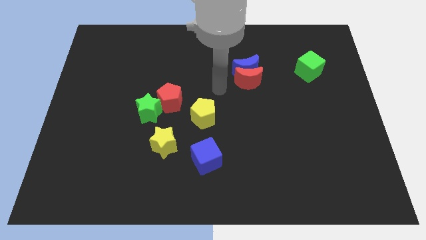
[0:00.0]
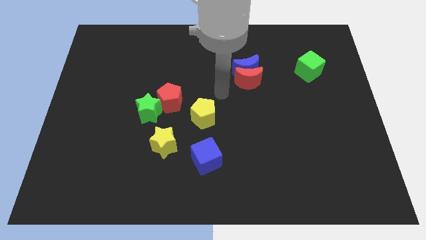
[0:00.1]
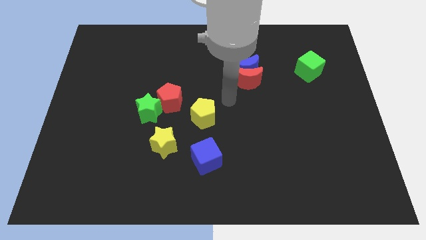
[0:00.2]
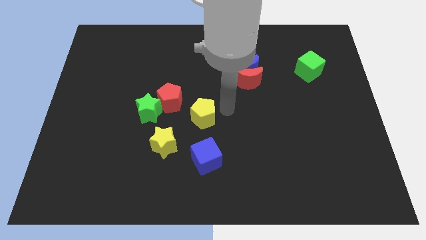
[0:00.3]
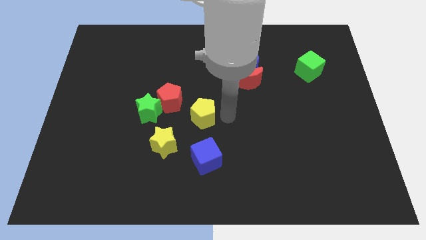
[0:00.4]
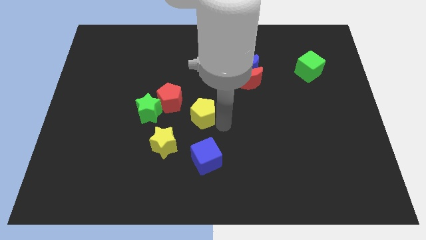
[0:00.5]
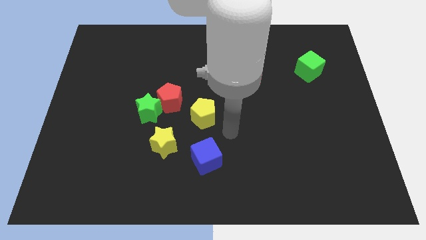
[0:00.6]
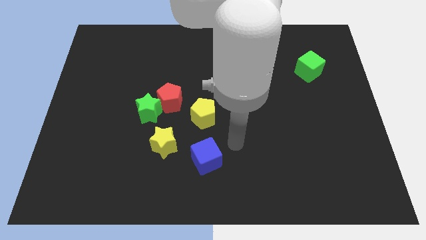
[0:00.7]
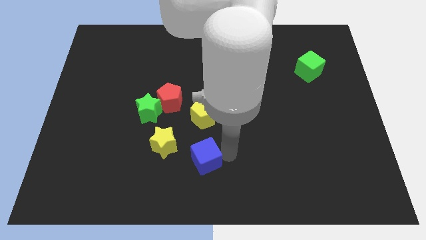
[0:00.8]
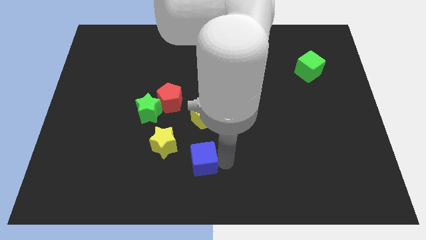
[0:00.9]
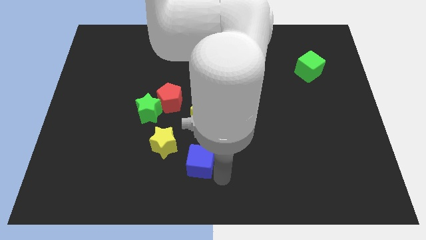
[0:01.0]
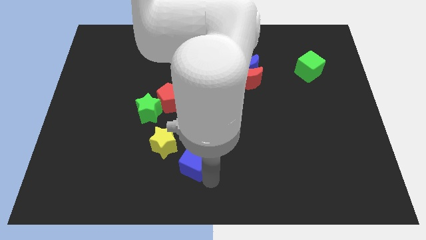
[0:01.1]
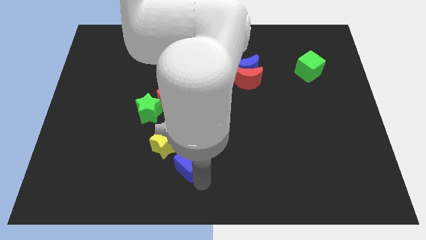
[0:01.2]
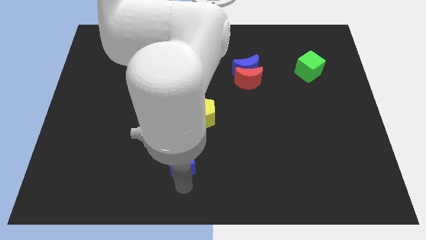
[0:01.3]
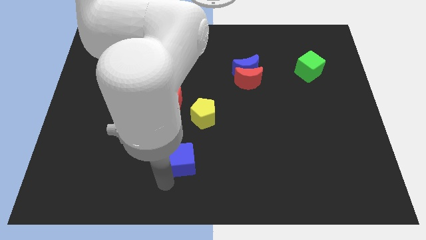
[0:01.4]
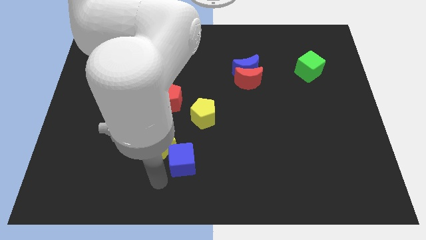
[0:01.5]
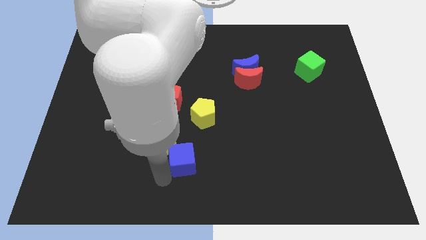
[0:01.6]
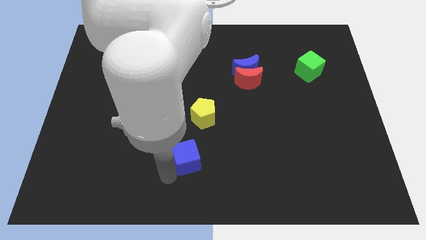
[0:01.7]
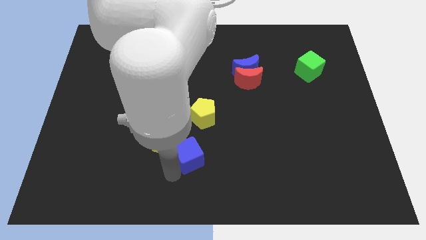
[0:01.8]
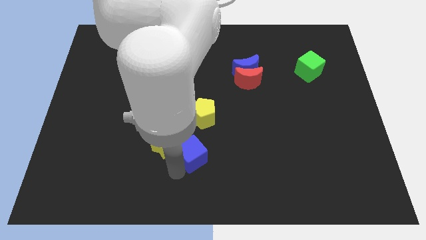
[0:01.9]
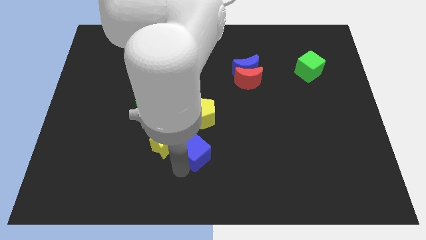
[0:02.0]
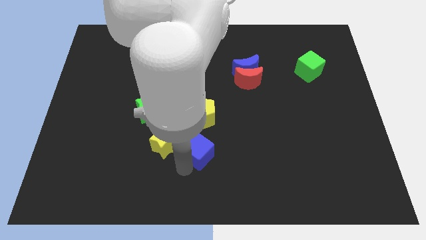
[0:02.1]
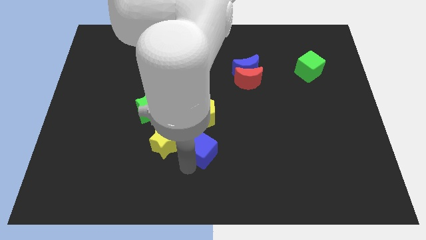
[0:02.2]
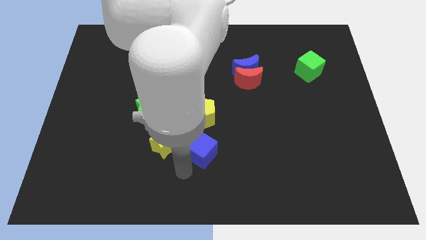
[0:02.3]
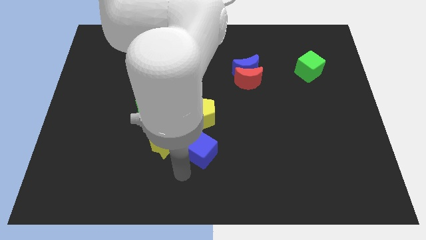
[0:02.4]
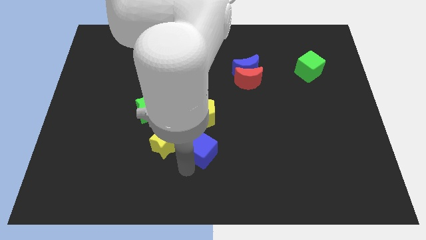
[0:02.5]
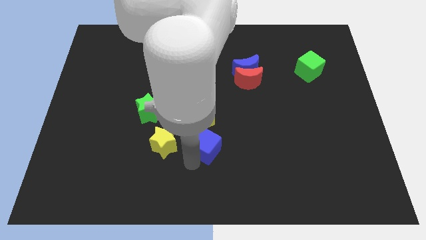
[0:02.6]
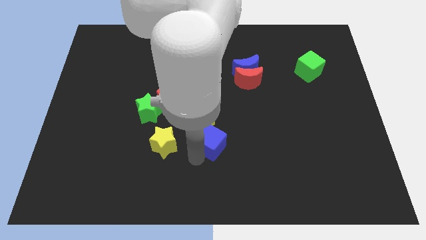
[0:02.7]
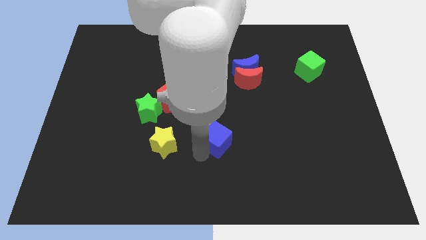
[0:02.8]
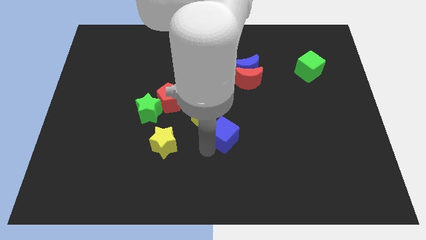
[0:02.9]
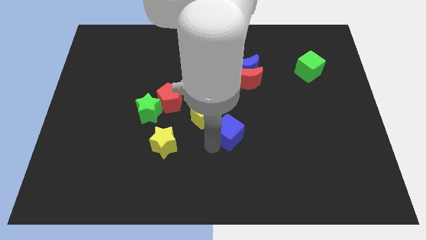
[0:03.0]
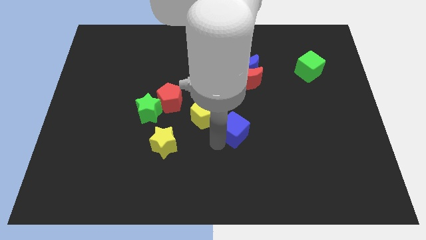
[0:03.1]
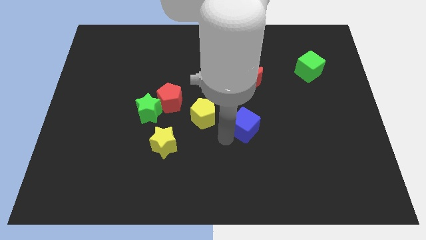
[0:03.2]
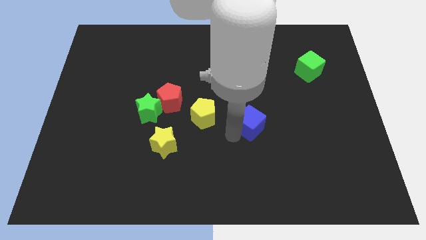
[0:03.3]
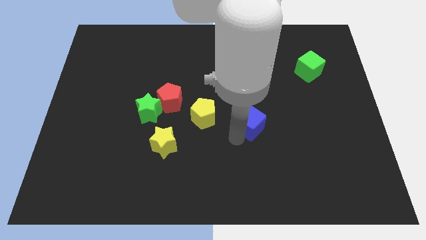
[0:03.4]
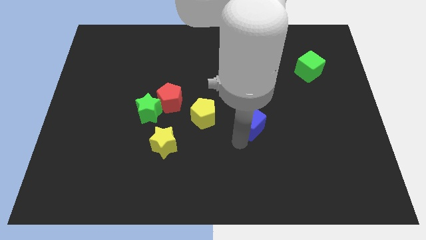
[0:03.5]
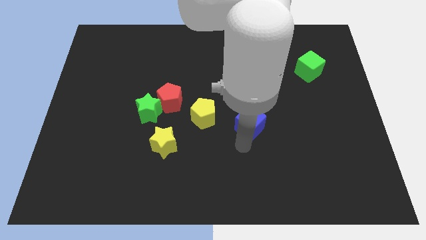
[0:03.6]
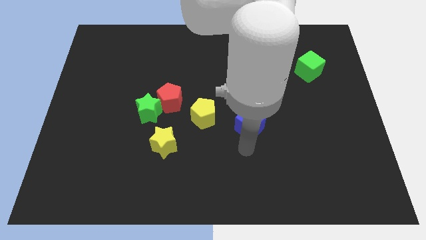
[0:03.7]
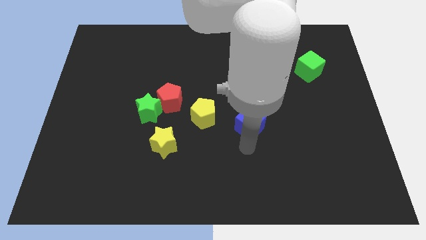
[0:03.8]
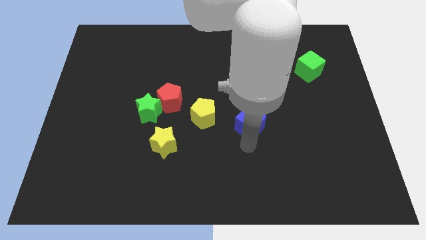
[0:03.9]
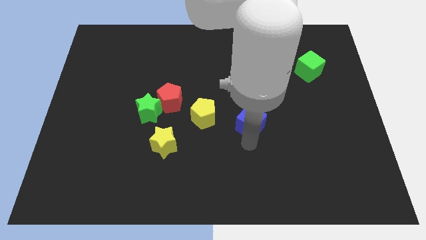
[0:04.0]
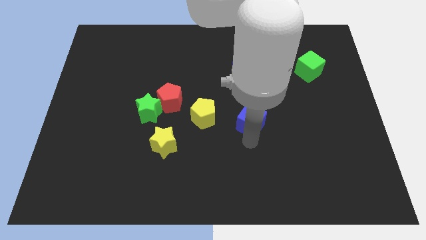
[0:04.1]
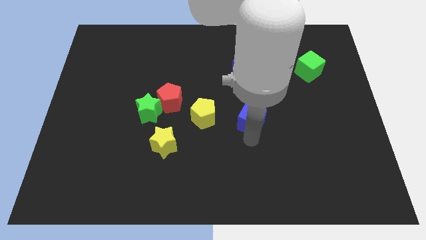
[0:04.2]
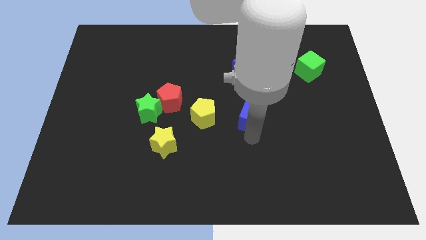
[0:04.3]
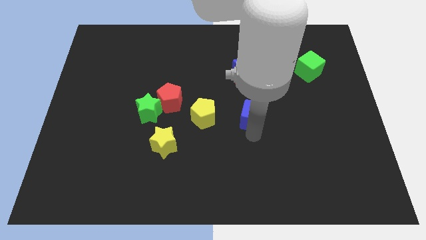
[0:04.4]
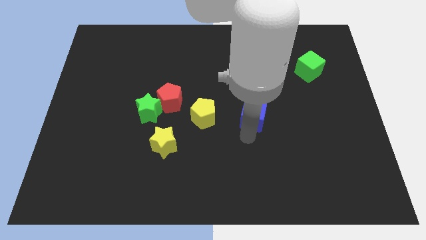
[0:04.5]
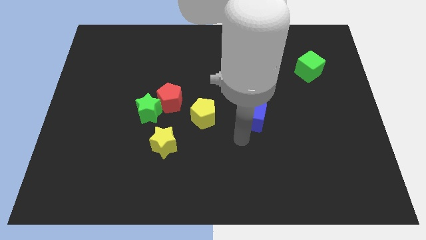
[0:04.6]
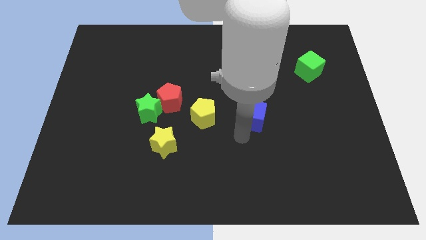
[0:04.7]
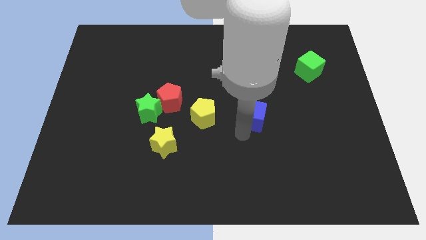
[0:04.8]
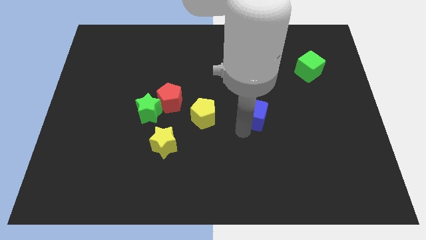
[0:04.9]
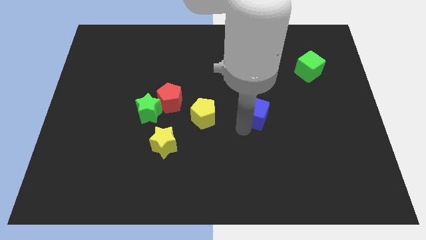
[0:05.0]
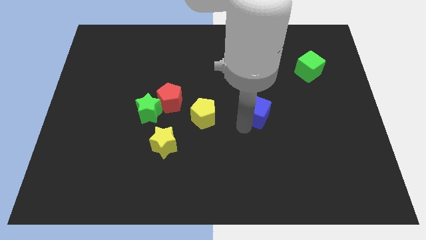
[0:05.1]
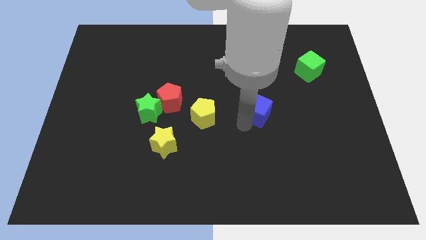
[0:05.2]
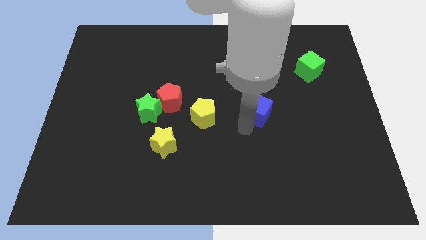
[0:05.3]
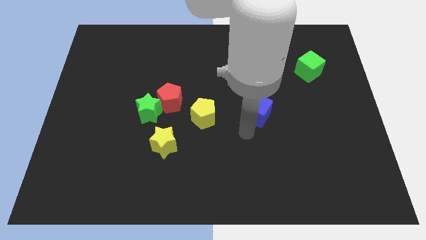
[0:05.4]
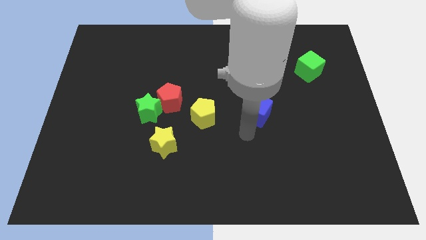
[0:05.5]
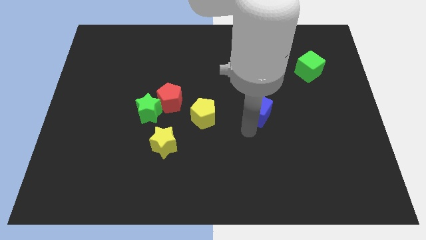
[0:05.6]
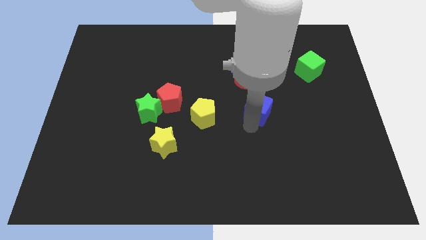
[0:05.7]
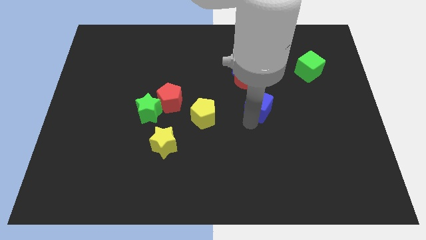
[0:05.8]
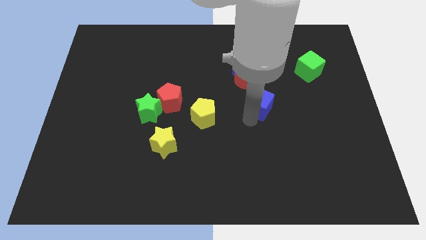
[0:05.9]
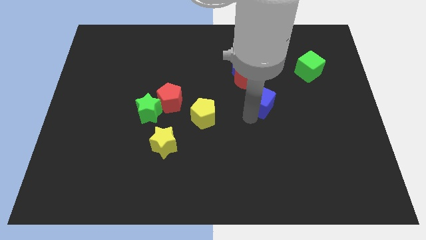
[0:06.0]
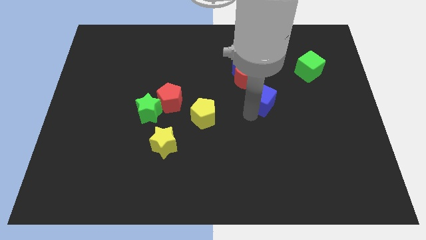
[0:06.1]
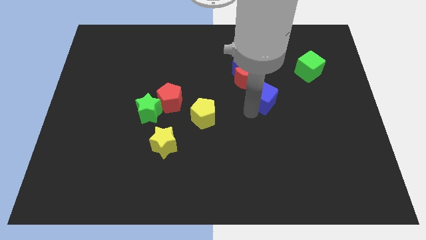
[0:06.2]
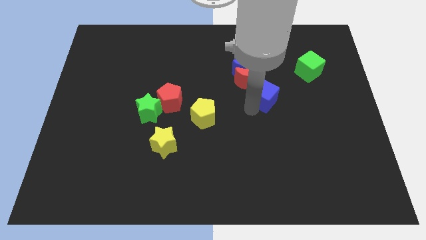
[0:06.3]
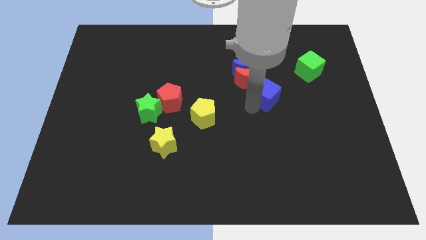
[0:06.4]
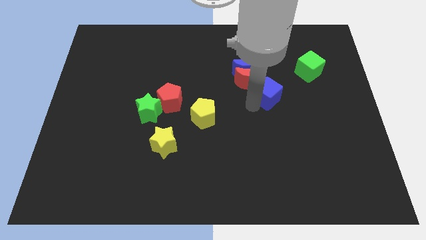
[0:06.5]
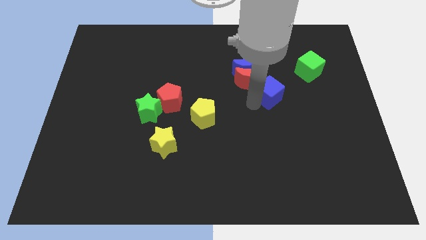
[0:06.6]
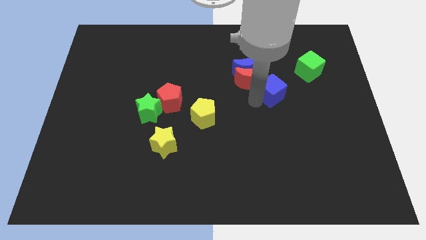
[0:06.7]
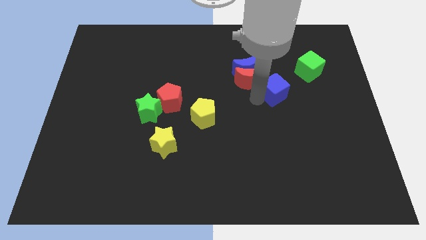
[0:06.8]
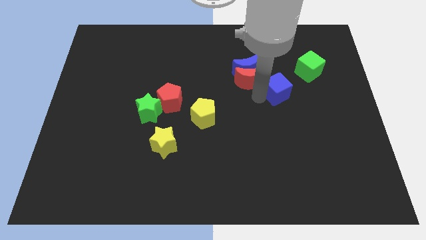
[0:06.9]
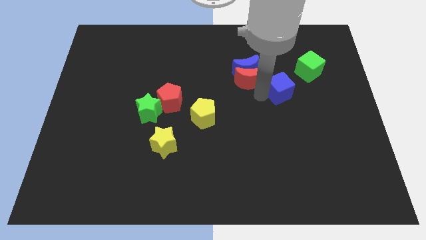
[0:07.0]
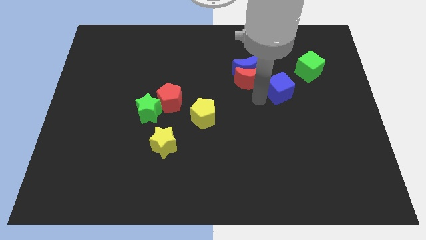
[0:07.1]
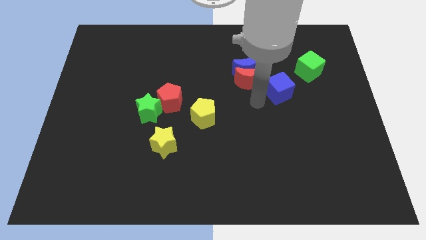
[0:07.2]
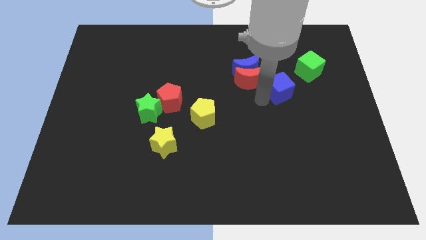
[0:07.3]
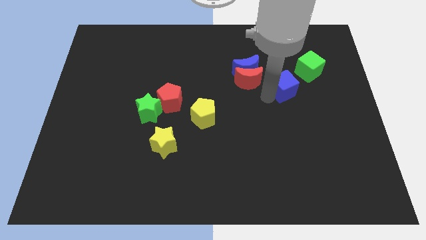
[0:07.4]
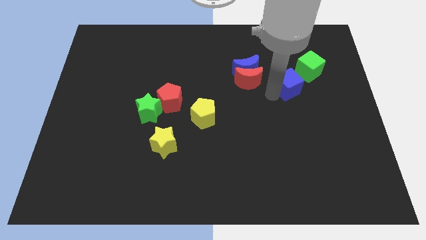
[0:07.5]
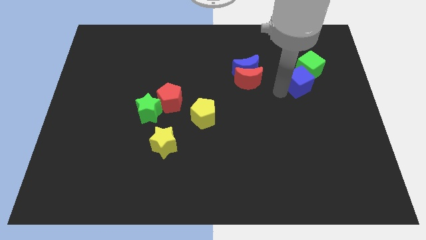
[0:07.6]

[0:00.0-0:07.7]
put the blue cube to the green cube

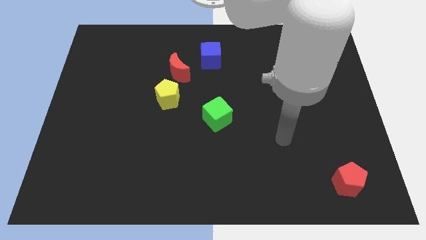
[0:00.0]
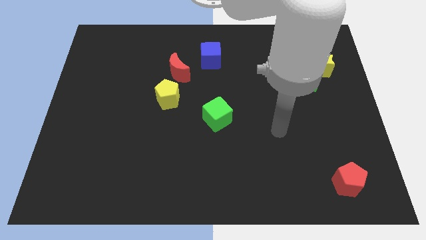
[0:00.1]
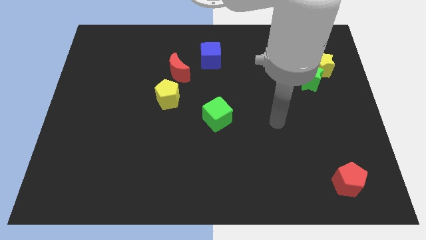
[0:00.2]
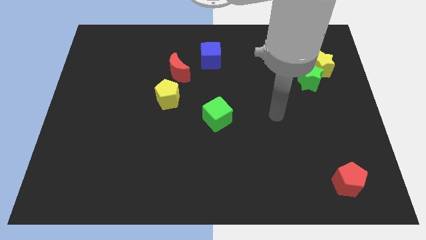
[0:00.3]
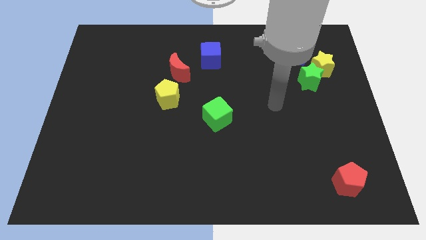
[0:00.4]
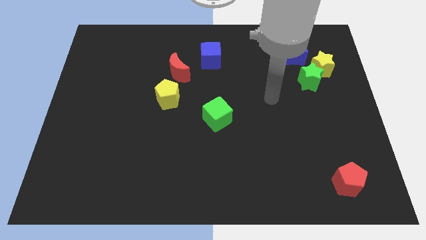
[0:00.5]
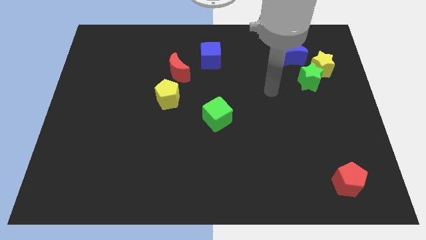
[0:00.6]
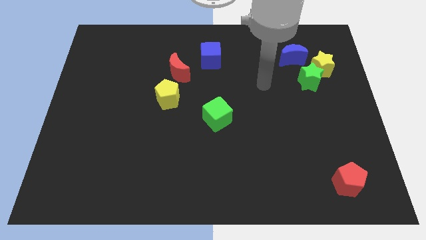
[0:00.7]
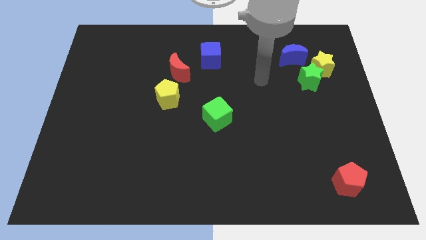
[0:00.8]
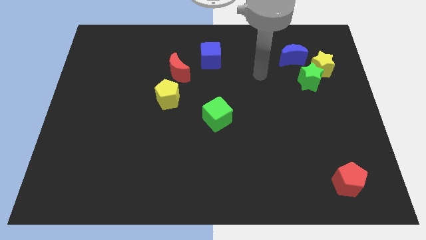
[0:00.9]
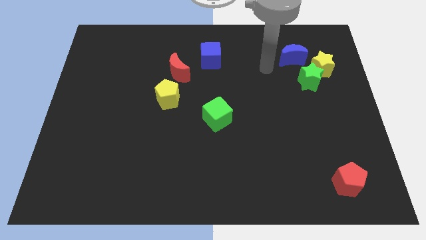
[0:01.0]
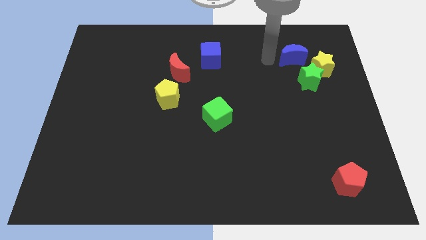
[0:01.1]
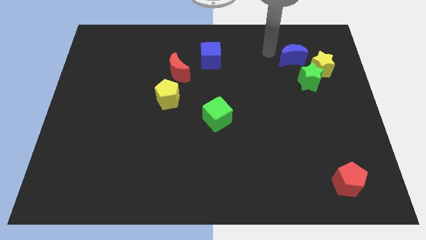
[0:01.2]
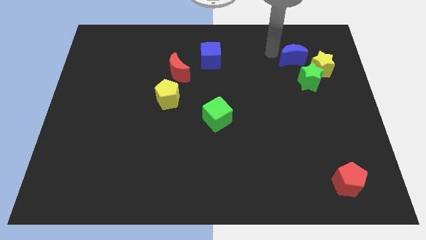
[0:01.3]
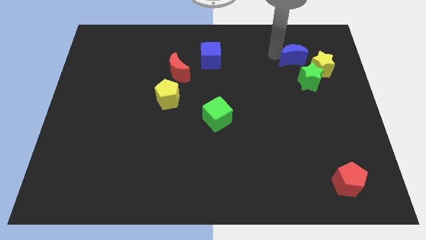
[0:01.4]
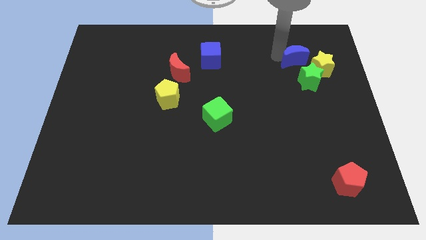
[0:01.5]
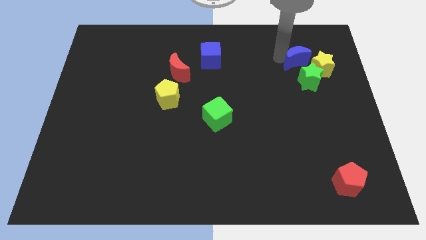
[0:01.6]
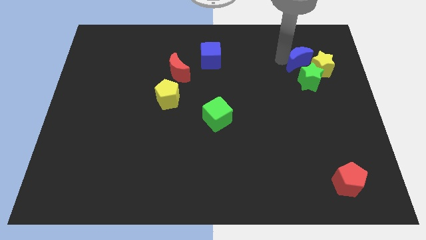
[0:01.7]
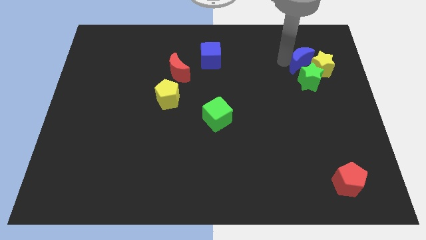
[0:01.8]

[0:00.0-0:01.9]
put the blue moon towards the yellow star
